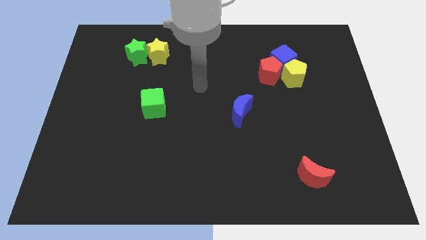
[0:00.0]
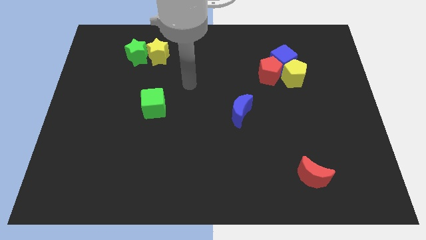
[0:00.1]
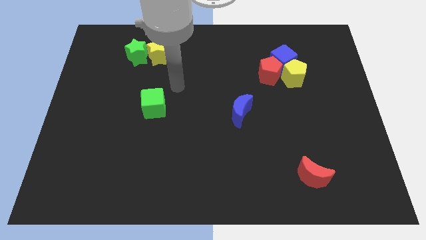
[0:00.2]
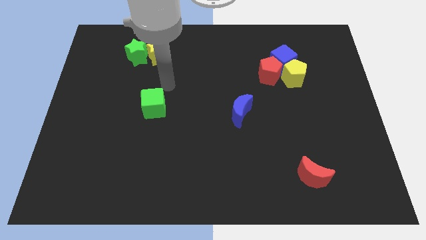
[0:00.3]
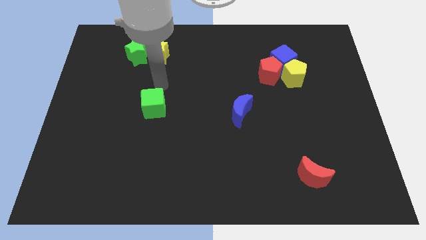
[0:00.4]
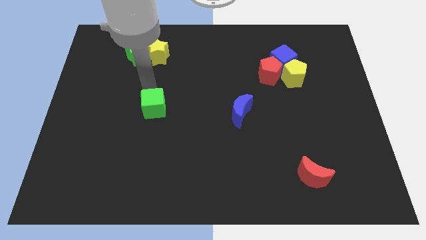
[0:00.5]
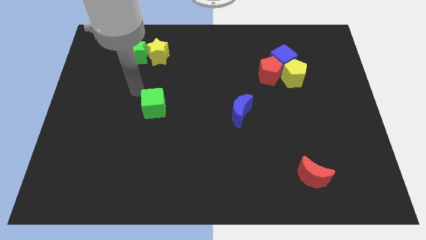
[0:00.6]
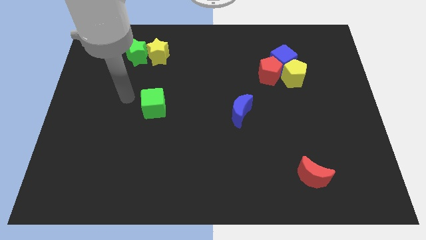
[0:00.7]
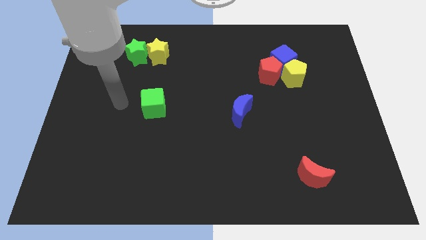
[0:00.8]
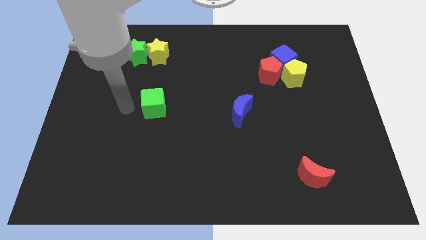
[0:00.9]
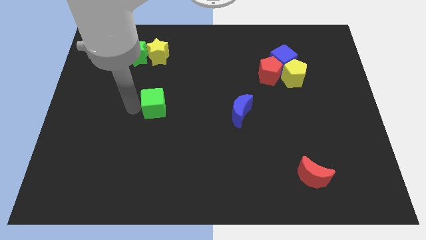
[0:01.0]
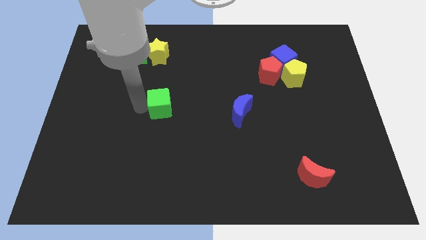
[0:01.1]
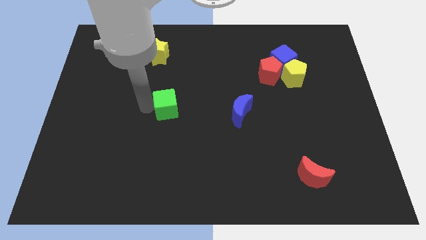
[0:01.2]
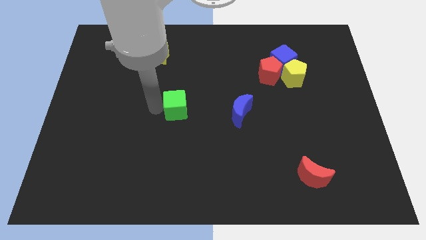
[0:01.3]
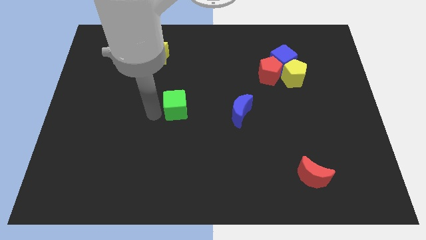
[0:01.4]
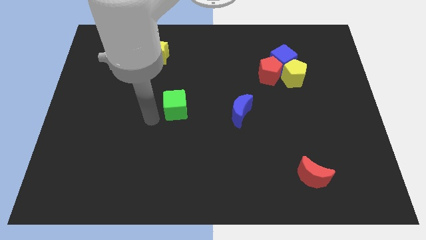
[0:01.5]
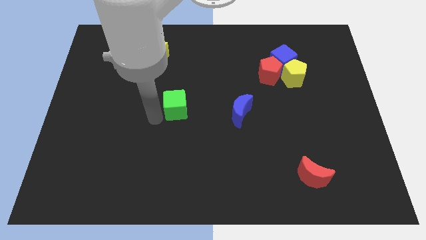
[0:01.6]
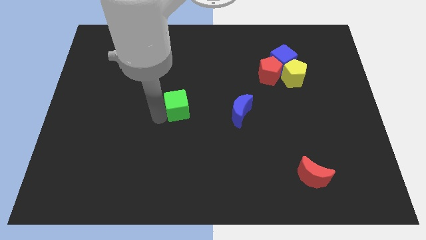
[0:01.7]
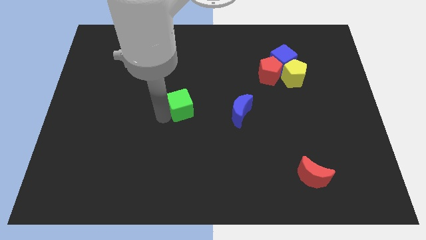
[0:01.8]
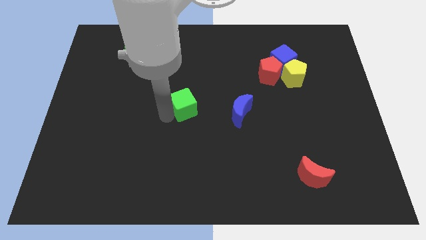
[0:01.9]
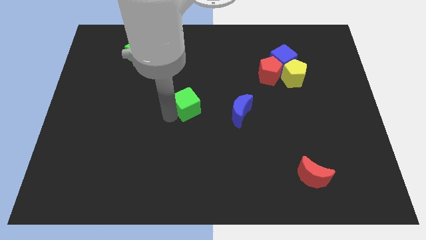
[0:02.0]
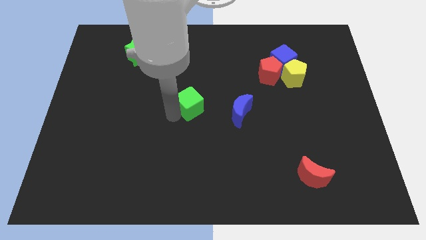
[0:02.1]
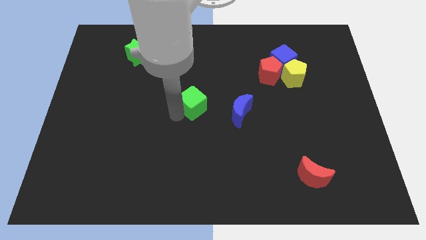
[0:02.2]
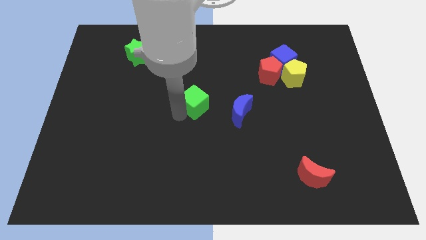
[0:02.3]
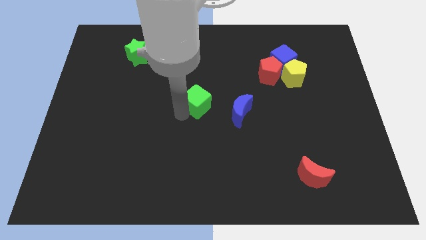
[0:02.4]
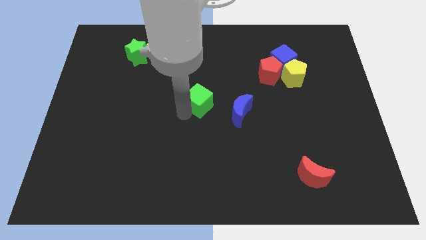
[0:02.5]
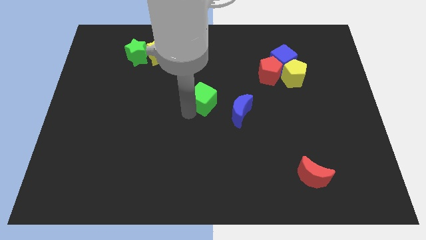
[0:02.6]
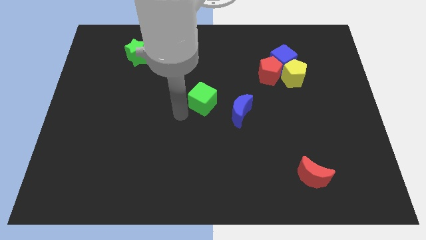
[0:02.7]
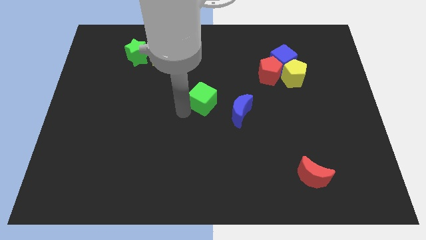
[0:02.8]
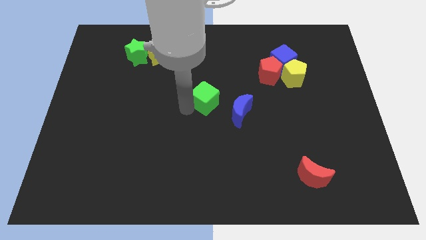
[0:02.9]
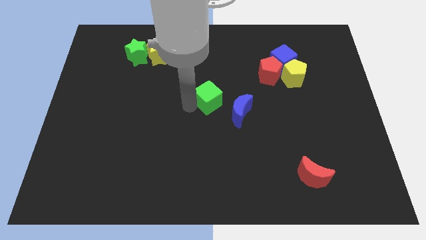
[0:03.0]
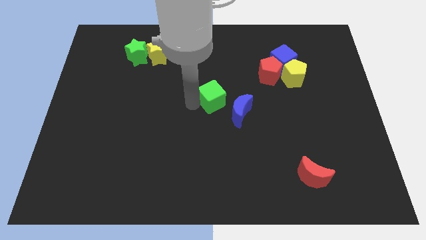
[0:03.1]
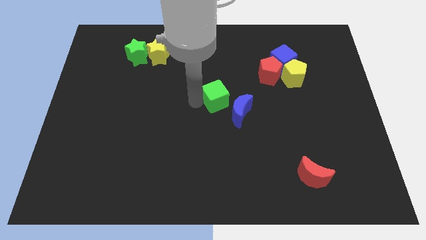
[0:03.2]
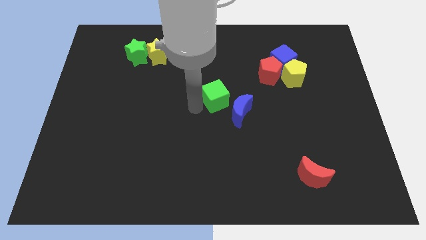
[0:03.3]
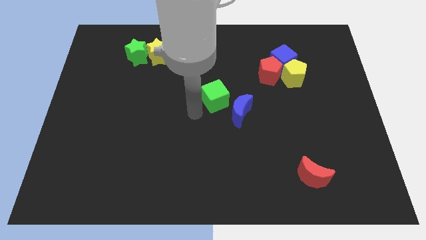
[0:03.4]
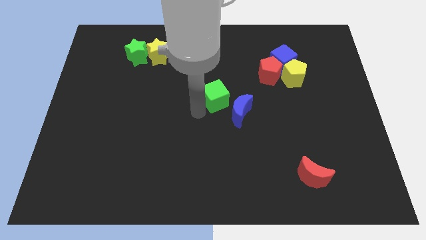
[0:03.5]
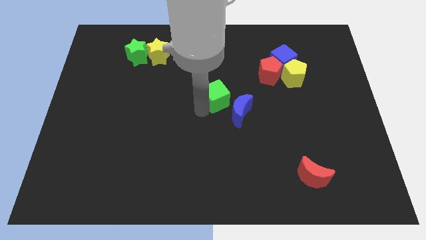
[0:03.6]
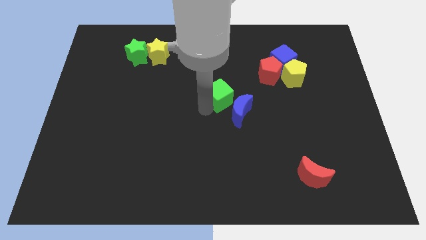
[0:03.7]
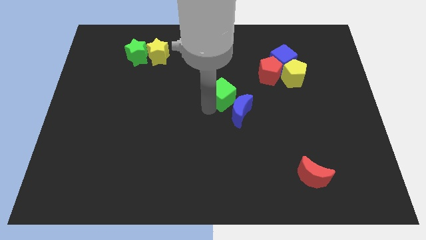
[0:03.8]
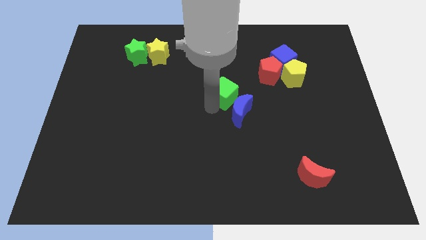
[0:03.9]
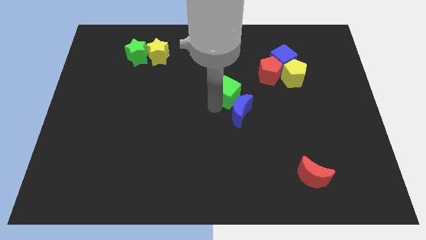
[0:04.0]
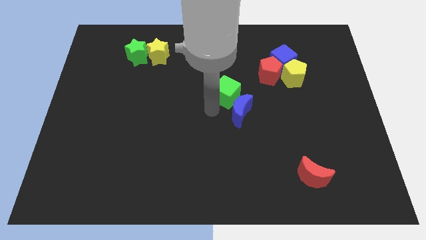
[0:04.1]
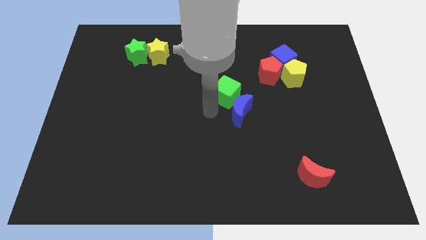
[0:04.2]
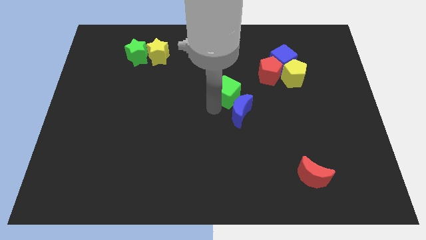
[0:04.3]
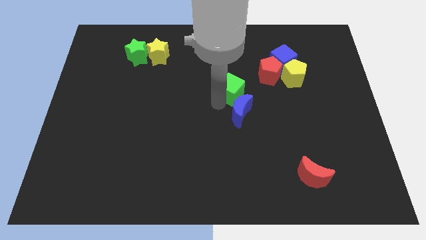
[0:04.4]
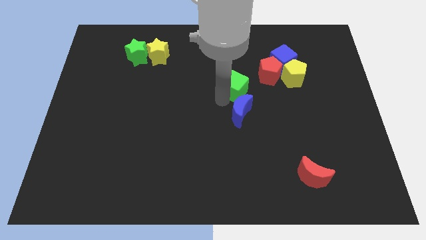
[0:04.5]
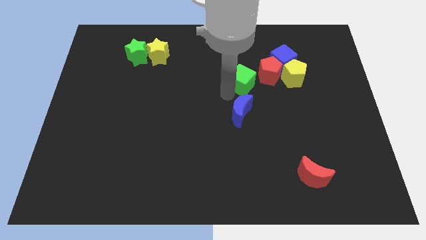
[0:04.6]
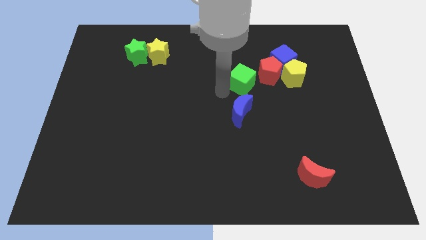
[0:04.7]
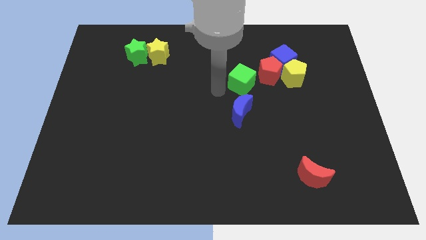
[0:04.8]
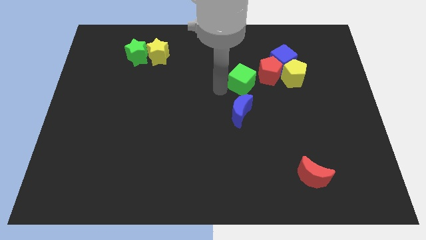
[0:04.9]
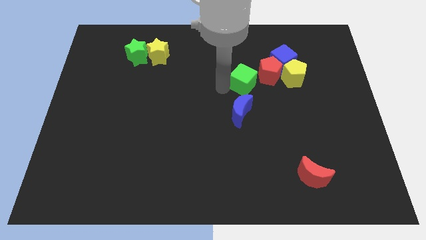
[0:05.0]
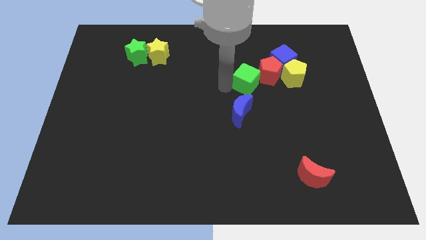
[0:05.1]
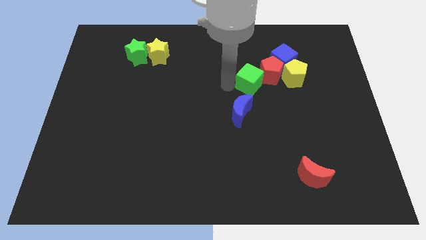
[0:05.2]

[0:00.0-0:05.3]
slide the green cube next to the red pentagon

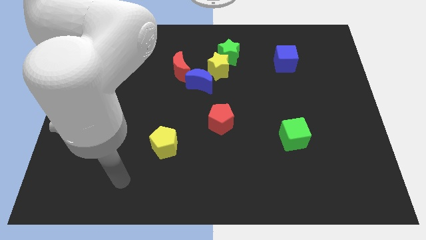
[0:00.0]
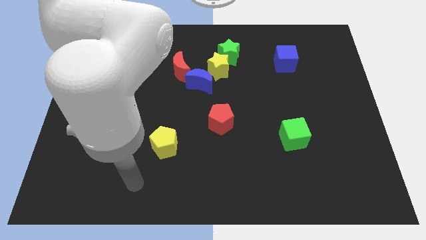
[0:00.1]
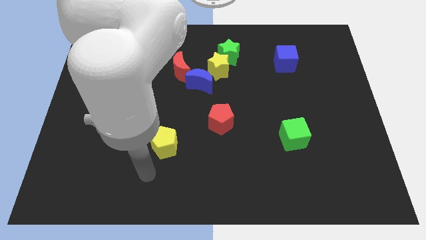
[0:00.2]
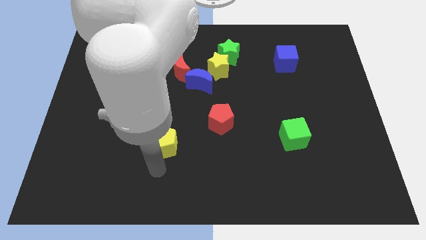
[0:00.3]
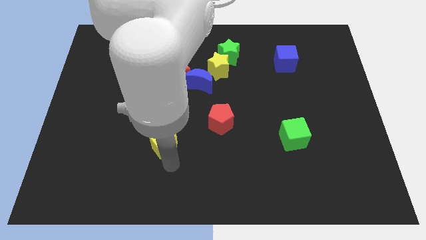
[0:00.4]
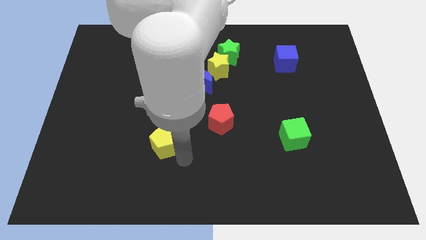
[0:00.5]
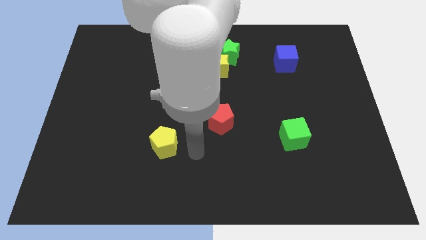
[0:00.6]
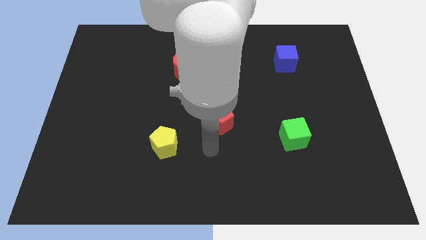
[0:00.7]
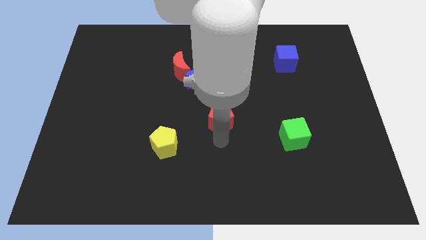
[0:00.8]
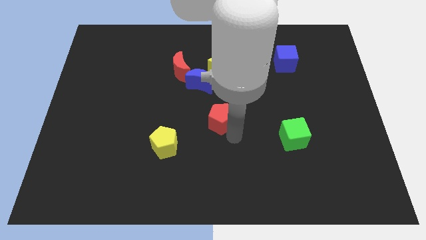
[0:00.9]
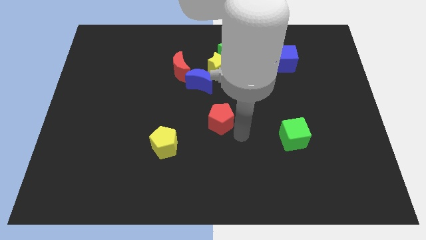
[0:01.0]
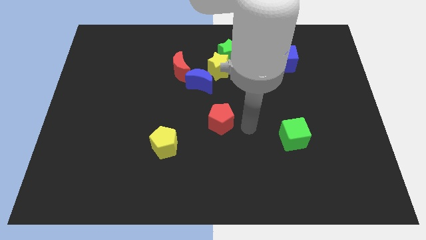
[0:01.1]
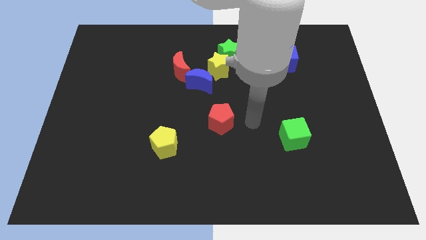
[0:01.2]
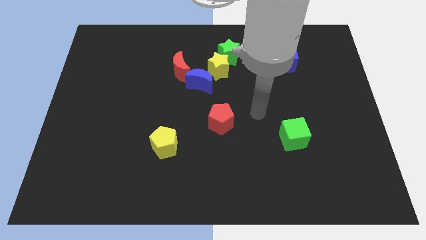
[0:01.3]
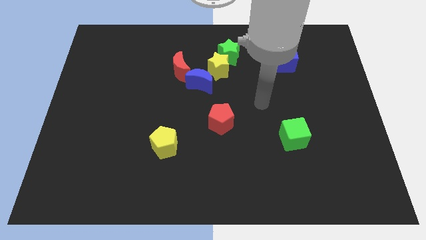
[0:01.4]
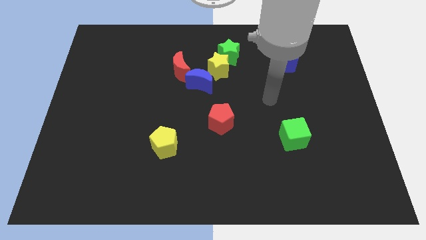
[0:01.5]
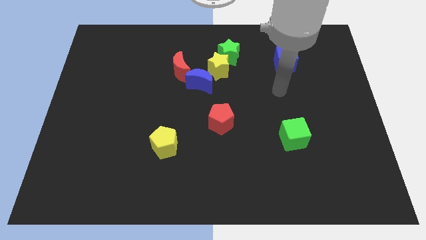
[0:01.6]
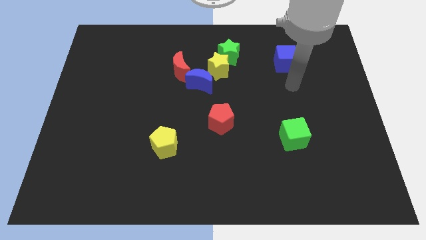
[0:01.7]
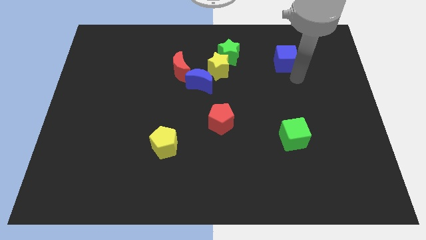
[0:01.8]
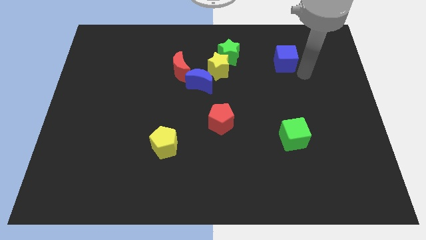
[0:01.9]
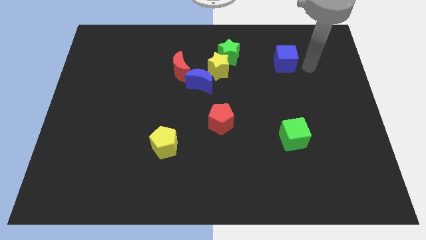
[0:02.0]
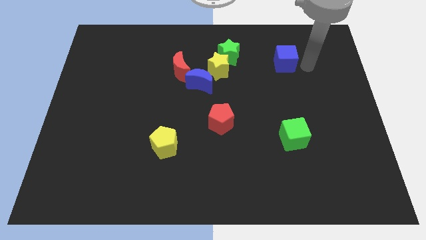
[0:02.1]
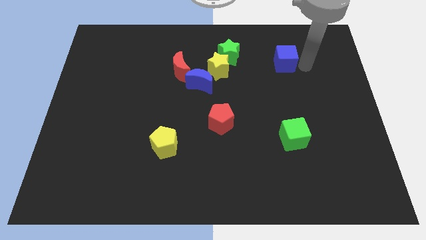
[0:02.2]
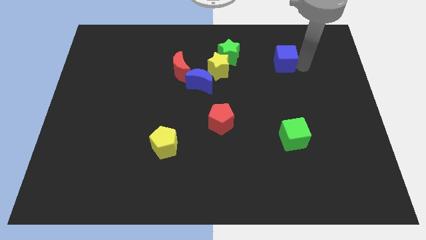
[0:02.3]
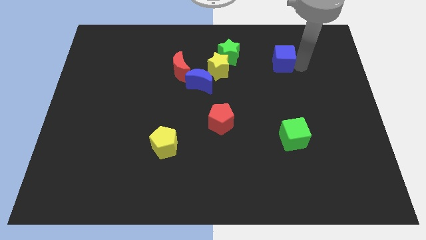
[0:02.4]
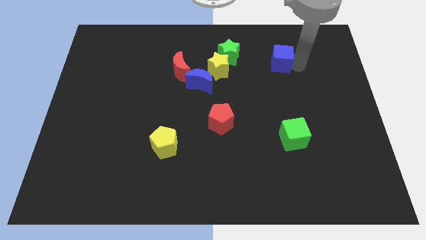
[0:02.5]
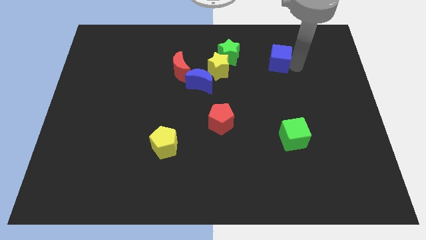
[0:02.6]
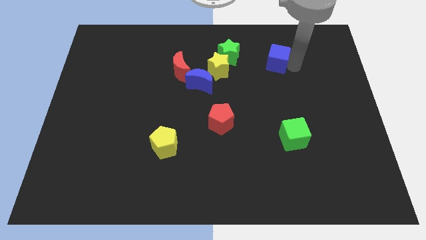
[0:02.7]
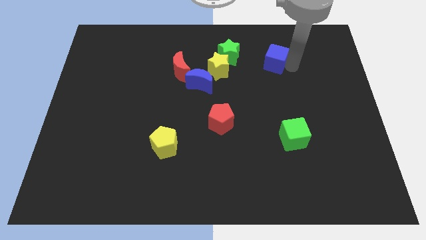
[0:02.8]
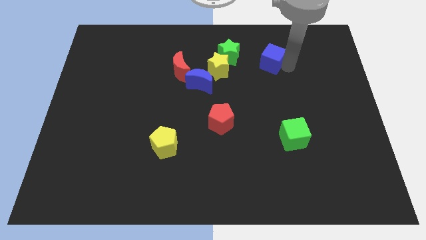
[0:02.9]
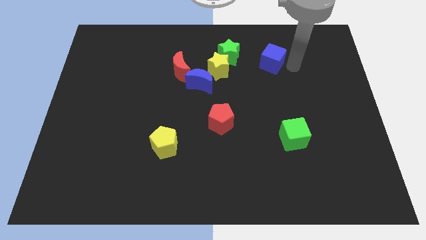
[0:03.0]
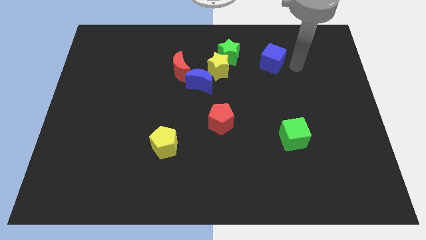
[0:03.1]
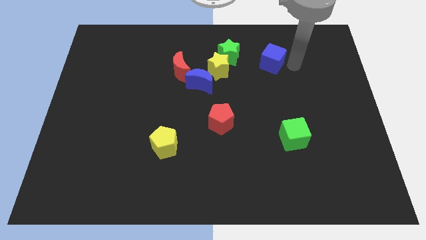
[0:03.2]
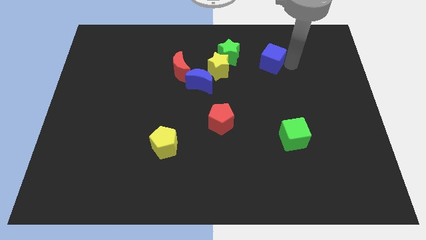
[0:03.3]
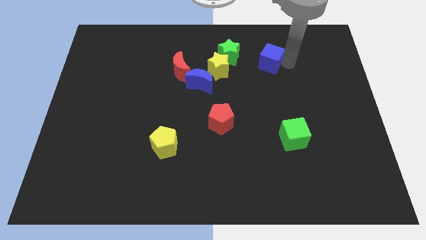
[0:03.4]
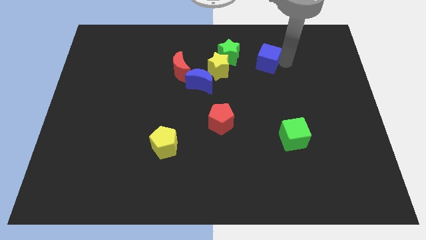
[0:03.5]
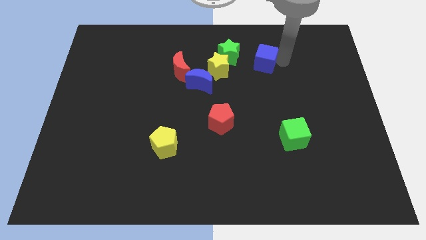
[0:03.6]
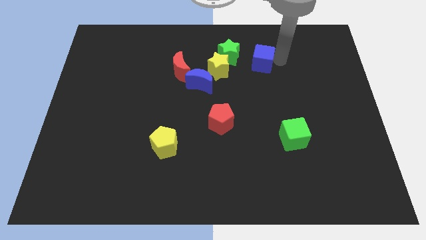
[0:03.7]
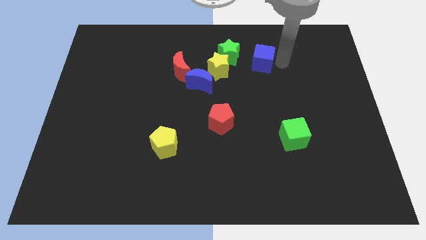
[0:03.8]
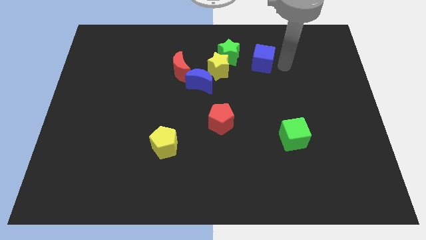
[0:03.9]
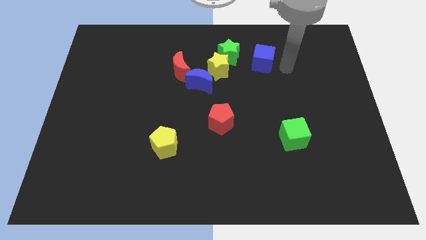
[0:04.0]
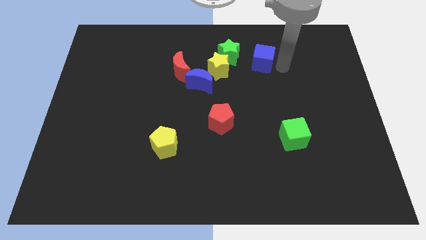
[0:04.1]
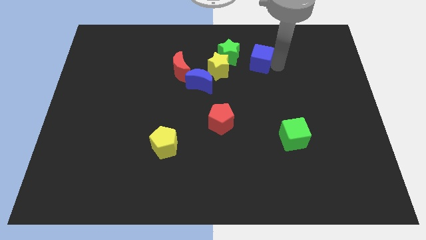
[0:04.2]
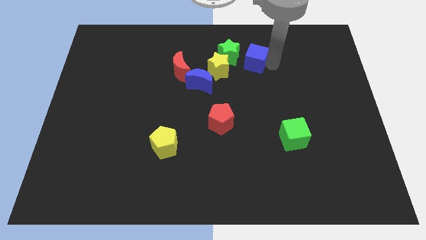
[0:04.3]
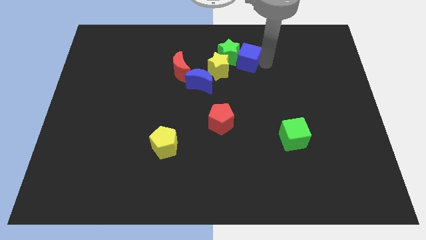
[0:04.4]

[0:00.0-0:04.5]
move the blue cube next to the green star
